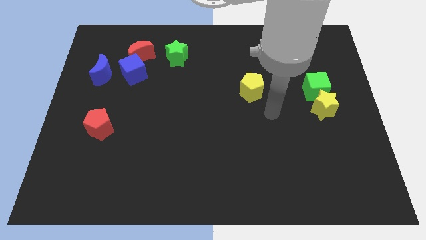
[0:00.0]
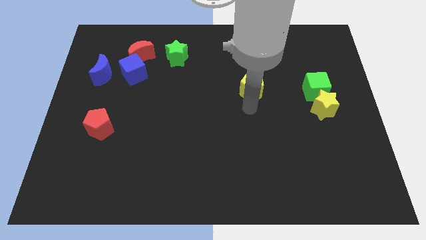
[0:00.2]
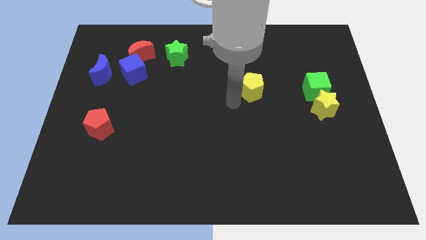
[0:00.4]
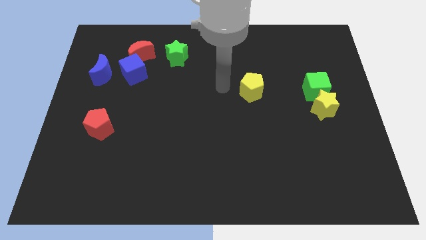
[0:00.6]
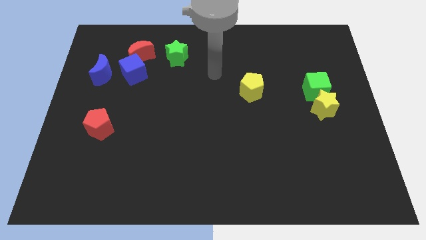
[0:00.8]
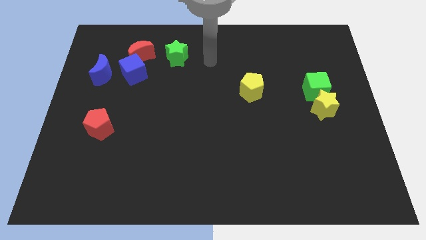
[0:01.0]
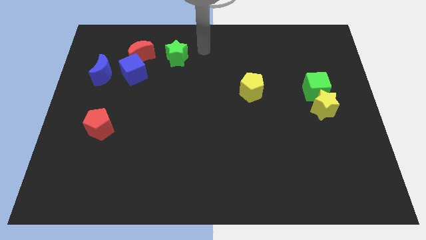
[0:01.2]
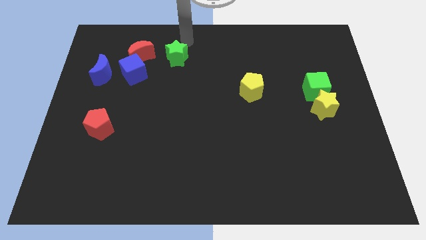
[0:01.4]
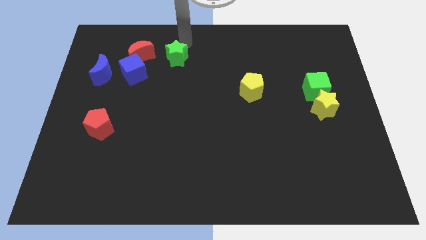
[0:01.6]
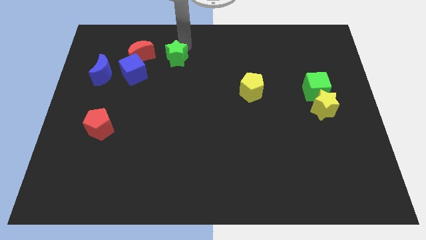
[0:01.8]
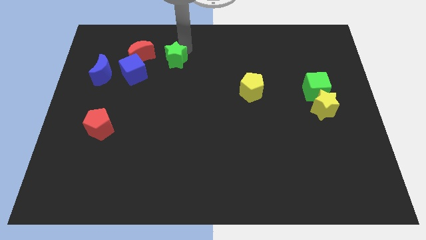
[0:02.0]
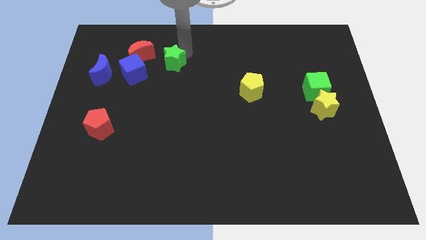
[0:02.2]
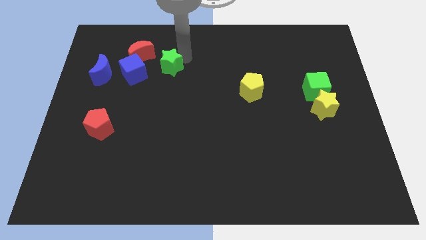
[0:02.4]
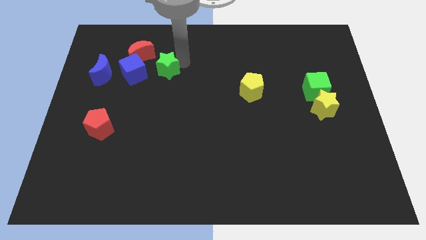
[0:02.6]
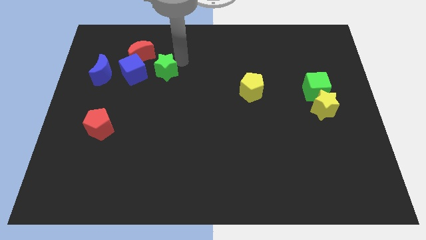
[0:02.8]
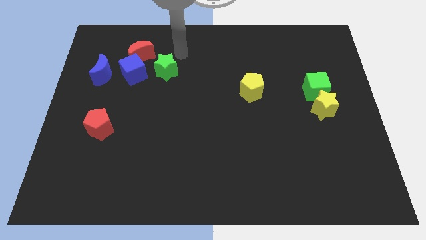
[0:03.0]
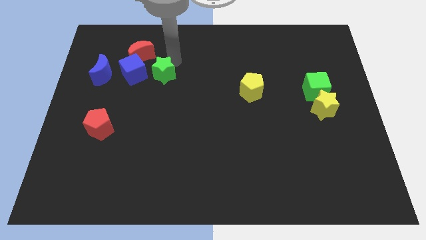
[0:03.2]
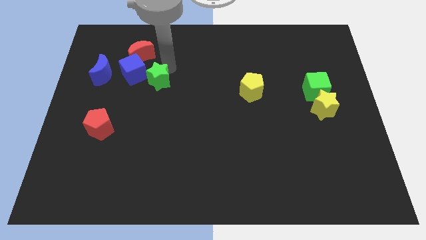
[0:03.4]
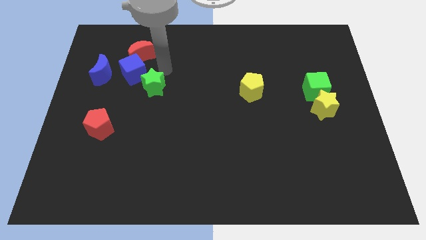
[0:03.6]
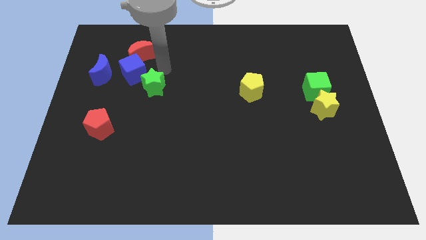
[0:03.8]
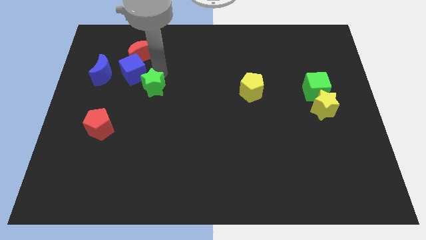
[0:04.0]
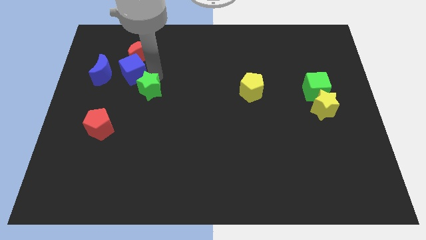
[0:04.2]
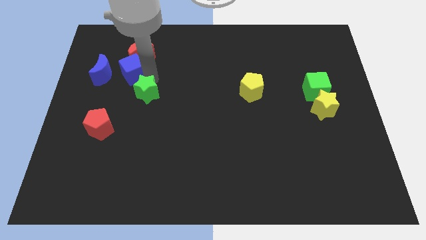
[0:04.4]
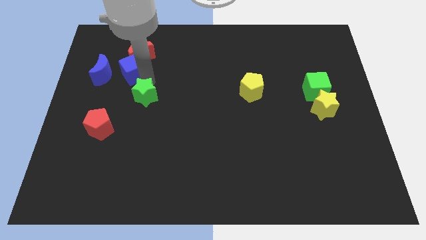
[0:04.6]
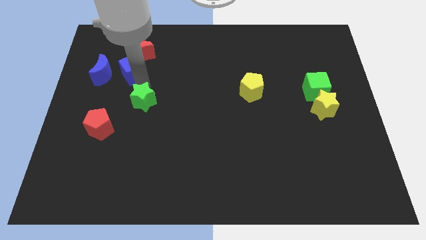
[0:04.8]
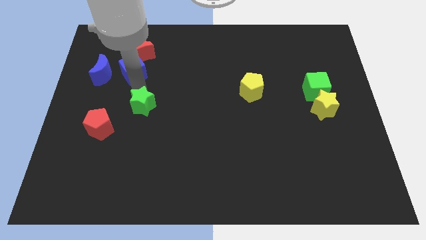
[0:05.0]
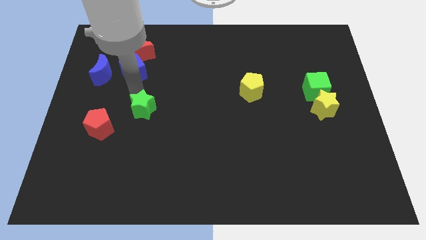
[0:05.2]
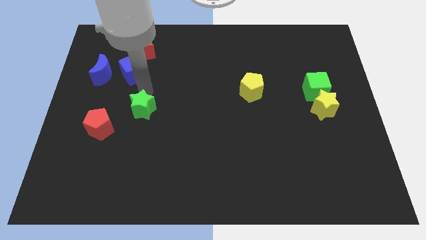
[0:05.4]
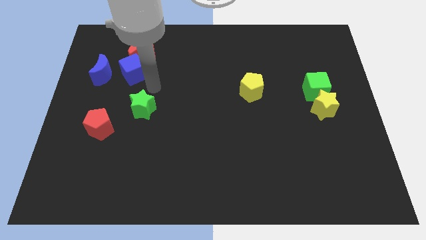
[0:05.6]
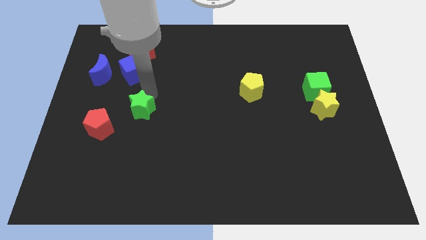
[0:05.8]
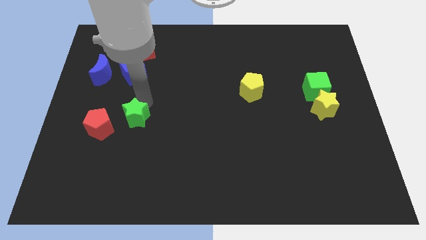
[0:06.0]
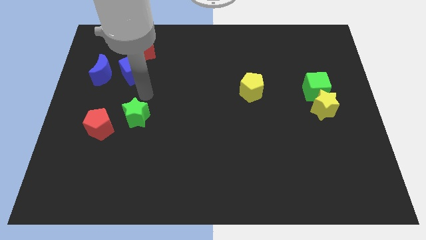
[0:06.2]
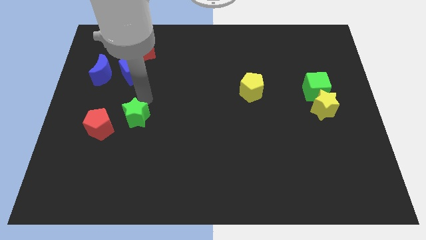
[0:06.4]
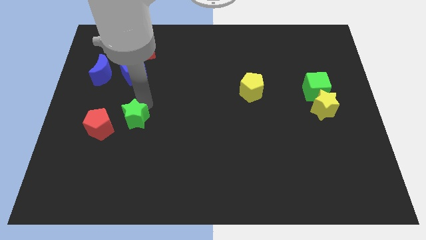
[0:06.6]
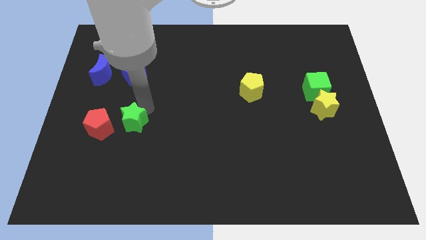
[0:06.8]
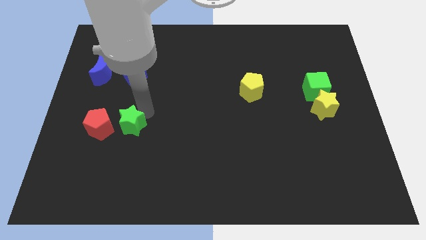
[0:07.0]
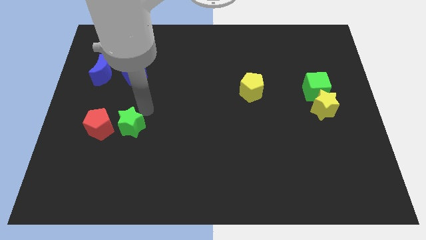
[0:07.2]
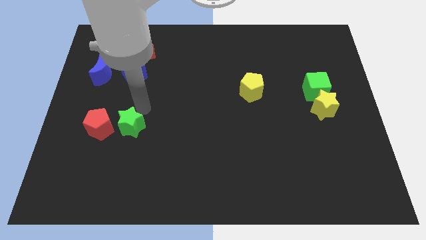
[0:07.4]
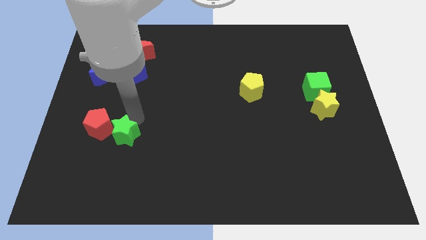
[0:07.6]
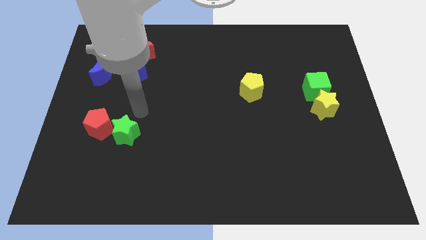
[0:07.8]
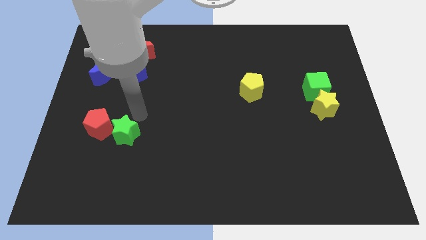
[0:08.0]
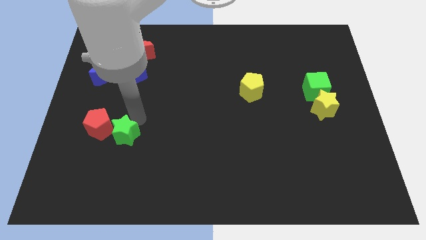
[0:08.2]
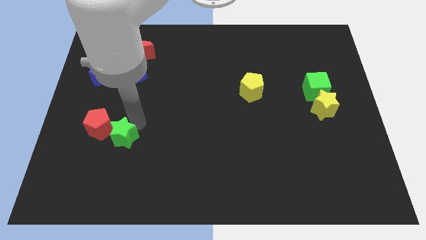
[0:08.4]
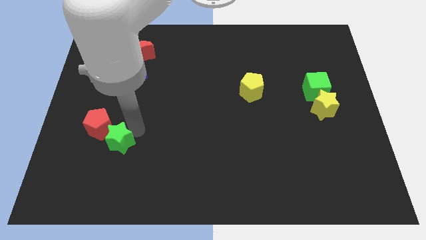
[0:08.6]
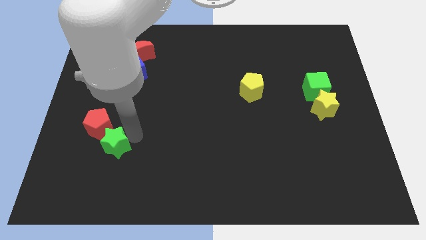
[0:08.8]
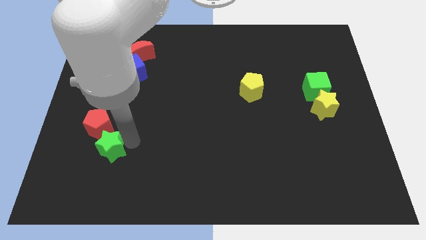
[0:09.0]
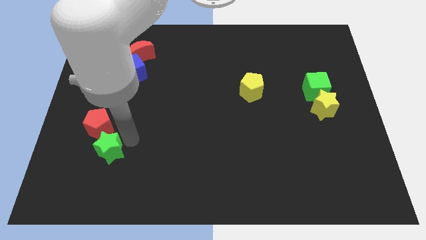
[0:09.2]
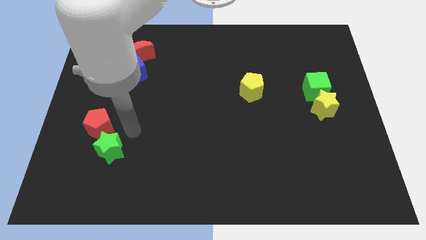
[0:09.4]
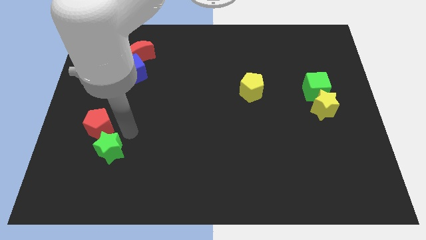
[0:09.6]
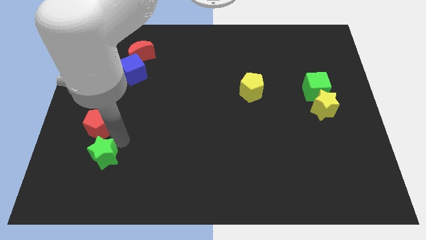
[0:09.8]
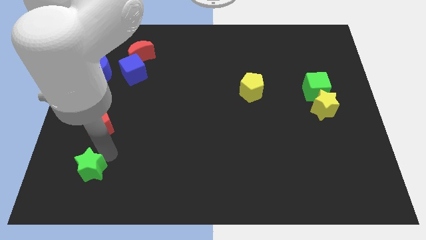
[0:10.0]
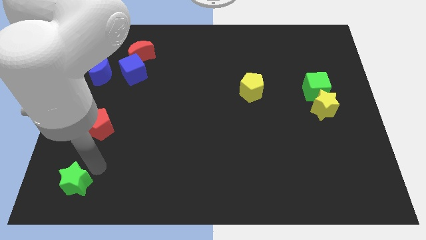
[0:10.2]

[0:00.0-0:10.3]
slide the green star to the bottom left

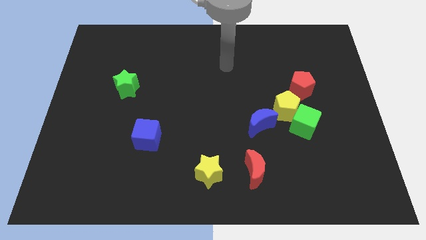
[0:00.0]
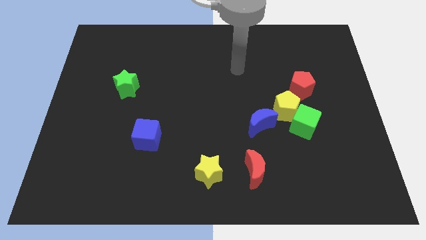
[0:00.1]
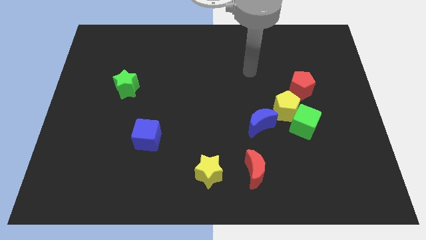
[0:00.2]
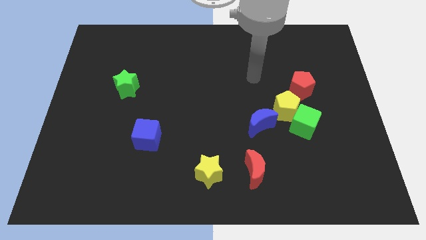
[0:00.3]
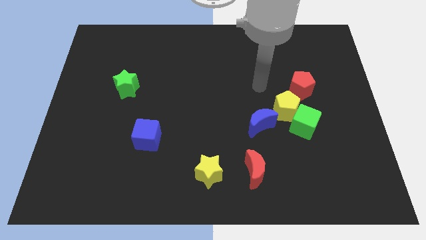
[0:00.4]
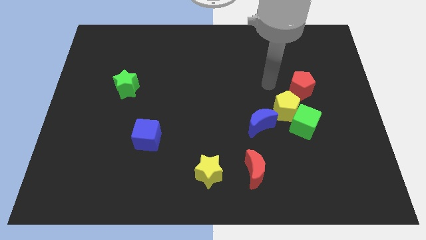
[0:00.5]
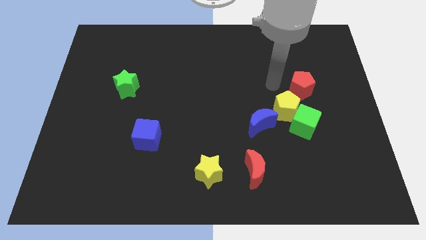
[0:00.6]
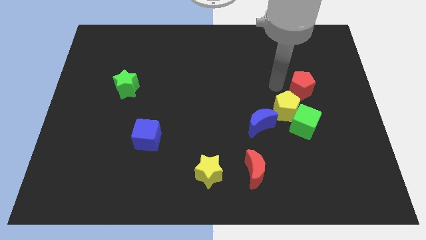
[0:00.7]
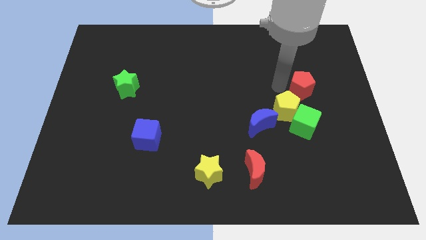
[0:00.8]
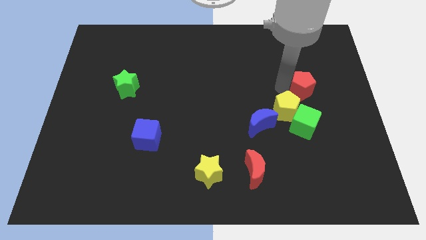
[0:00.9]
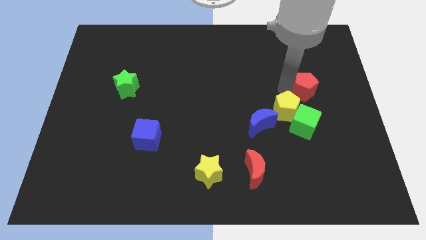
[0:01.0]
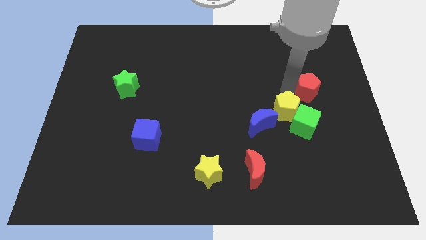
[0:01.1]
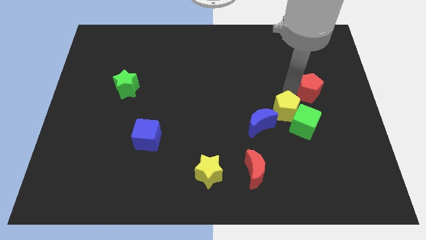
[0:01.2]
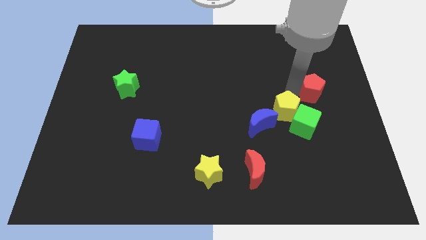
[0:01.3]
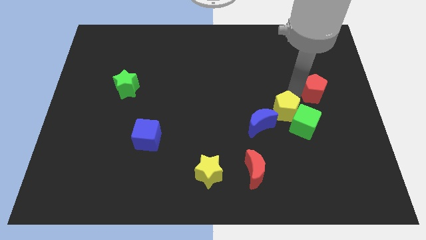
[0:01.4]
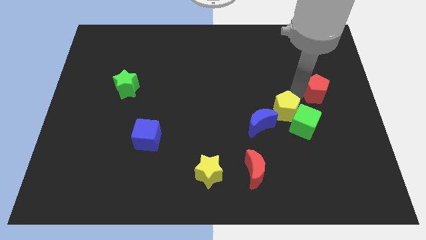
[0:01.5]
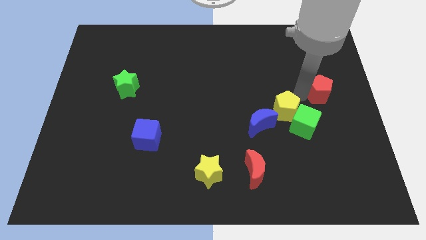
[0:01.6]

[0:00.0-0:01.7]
push the red pentagon to the right side of the board
